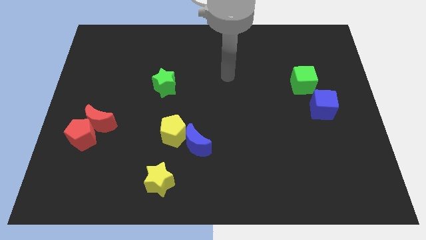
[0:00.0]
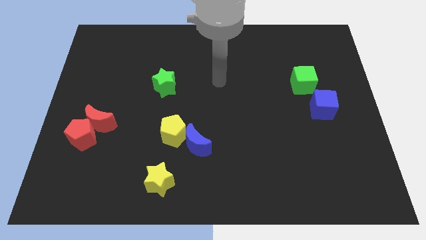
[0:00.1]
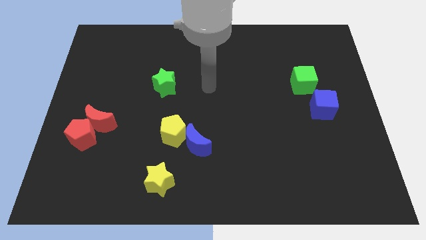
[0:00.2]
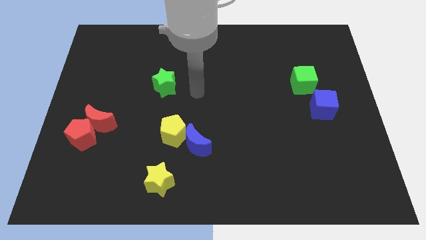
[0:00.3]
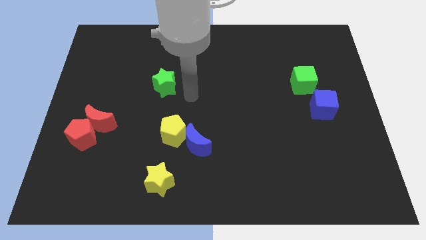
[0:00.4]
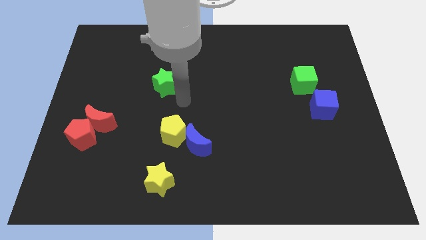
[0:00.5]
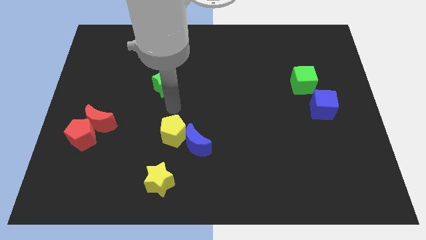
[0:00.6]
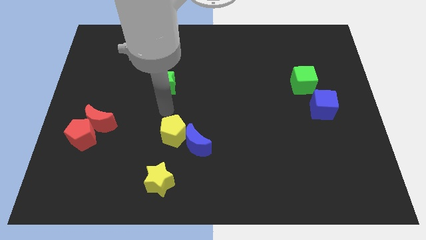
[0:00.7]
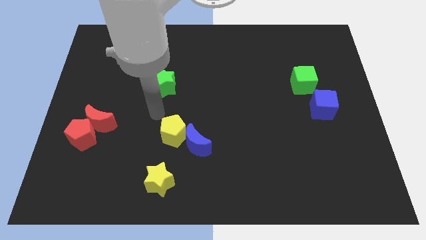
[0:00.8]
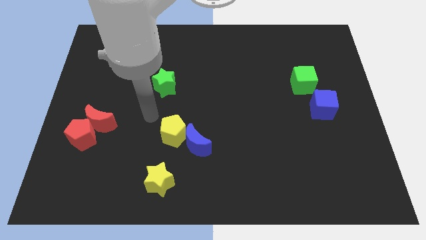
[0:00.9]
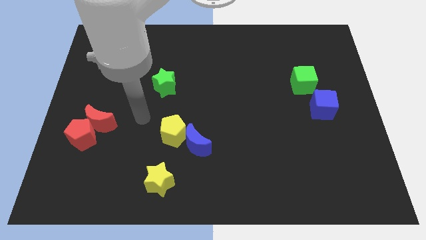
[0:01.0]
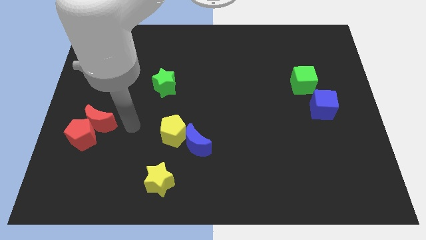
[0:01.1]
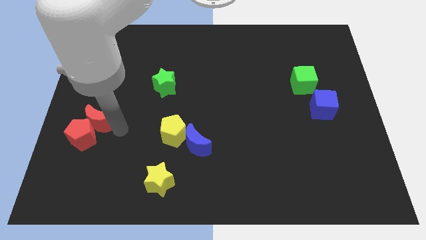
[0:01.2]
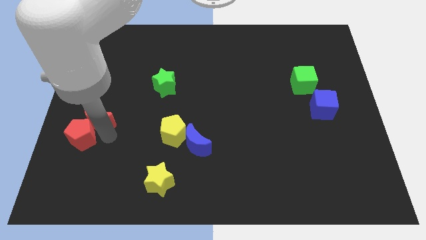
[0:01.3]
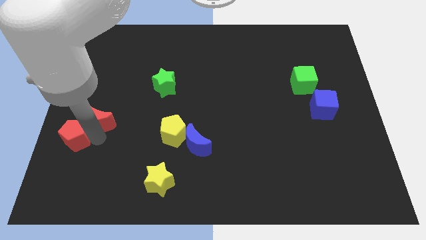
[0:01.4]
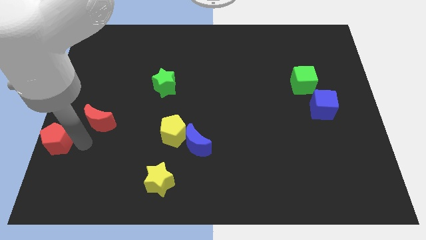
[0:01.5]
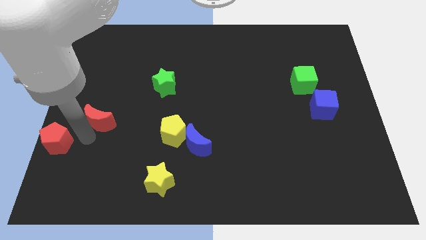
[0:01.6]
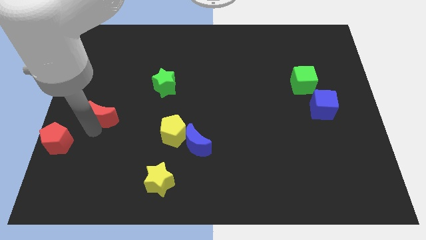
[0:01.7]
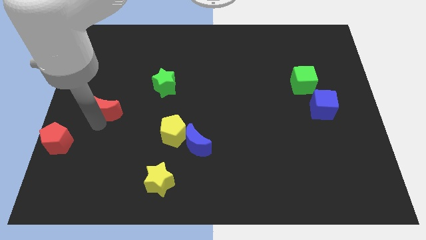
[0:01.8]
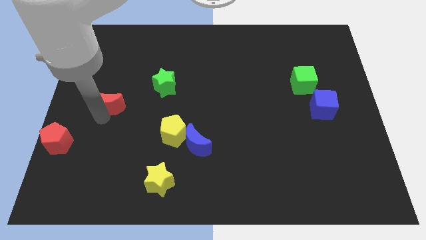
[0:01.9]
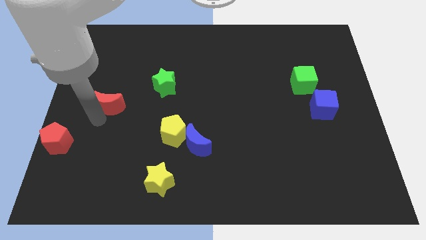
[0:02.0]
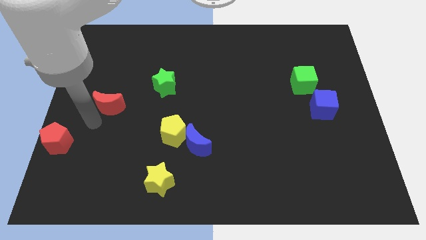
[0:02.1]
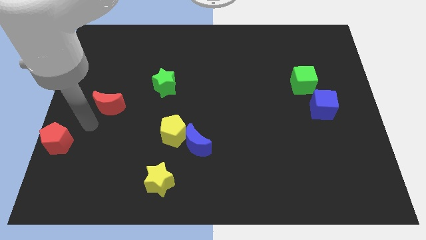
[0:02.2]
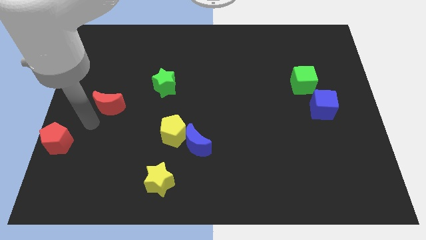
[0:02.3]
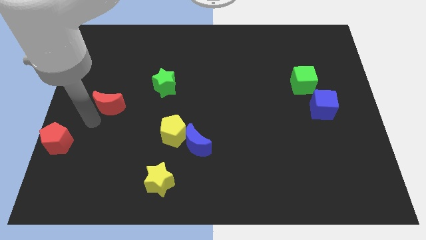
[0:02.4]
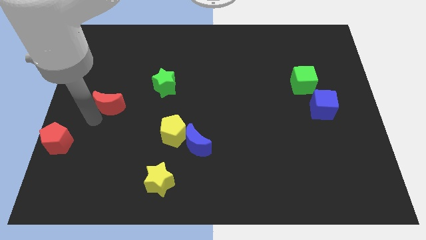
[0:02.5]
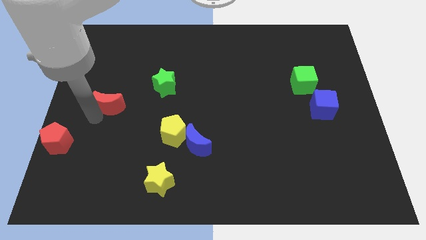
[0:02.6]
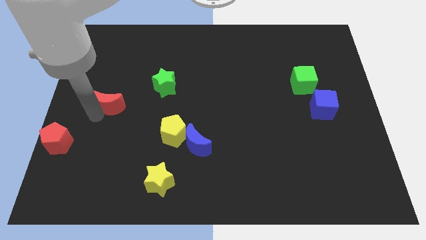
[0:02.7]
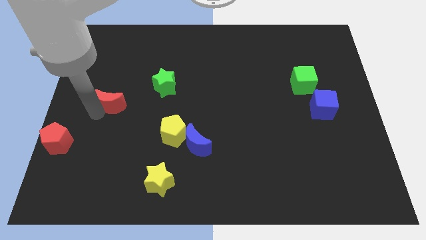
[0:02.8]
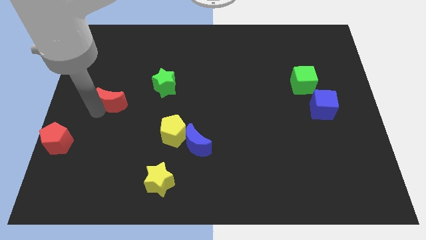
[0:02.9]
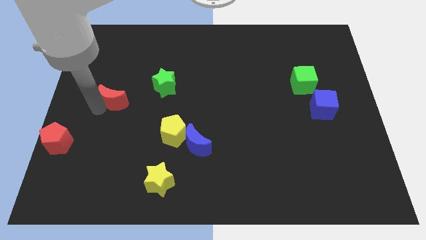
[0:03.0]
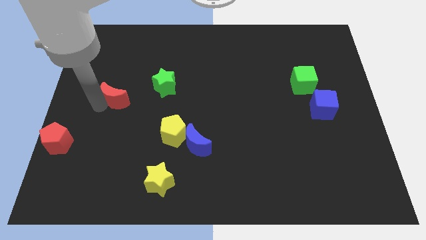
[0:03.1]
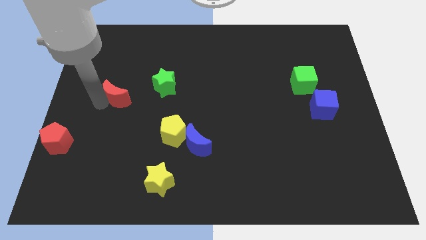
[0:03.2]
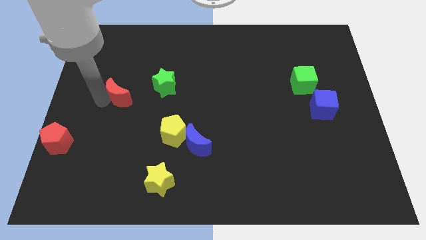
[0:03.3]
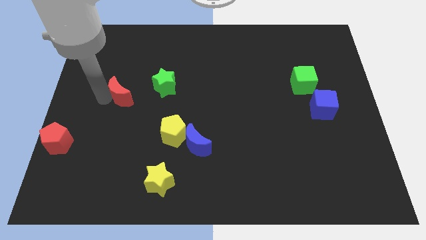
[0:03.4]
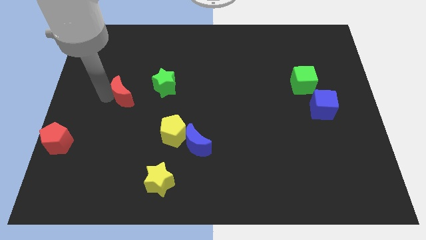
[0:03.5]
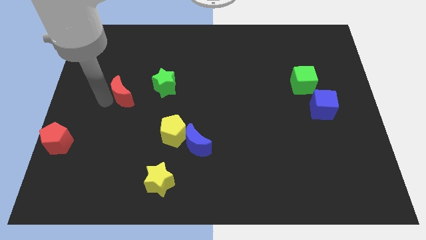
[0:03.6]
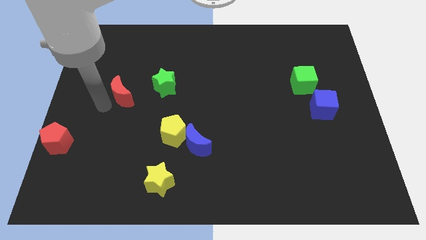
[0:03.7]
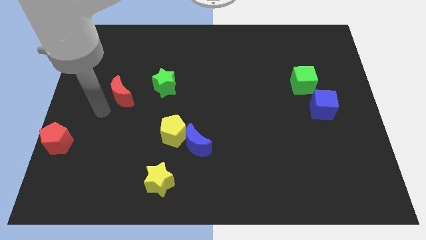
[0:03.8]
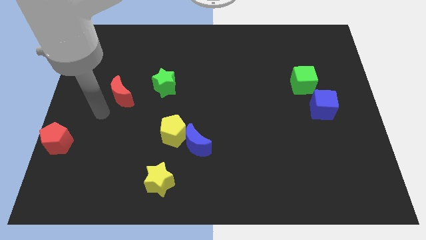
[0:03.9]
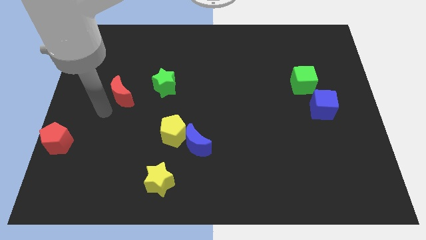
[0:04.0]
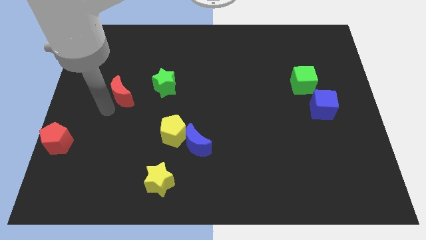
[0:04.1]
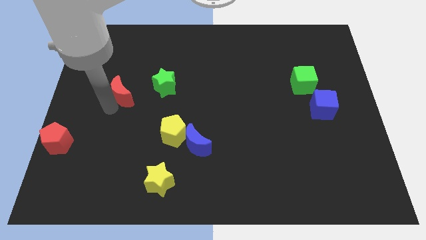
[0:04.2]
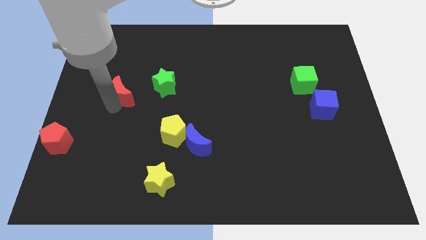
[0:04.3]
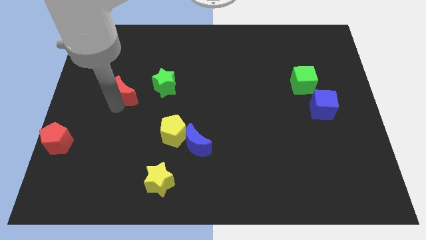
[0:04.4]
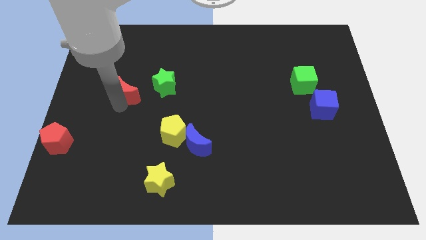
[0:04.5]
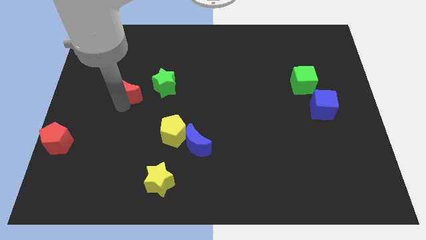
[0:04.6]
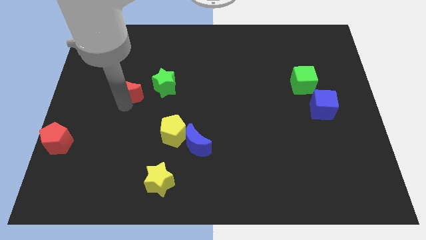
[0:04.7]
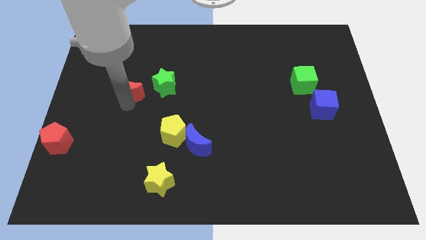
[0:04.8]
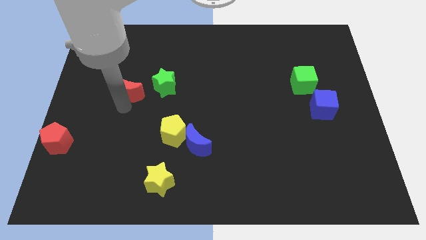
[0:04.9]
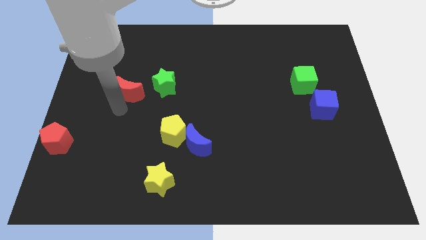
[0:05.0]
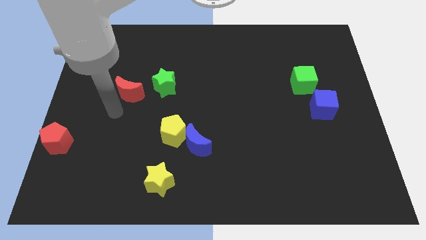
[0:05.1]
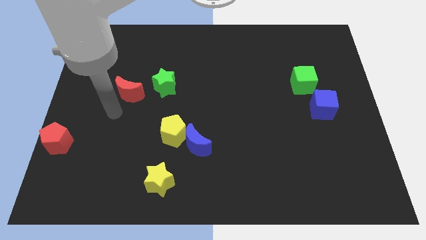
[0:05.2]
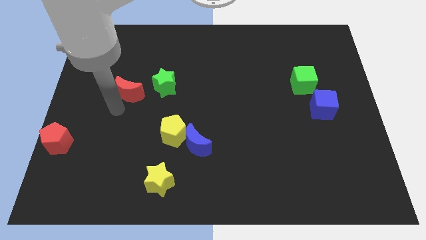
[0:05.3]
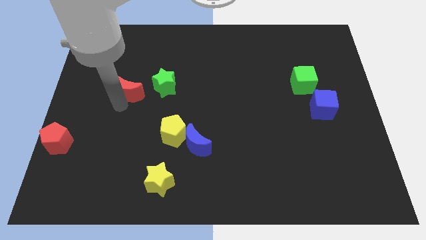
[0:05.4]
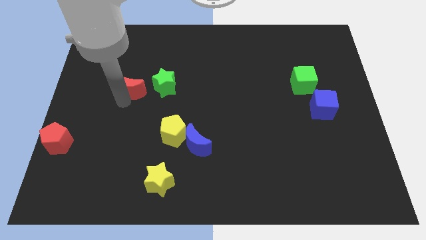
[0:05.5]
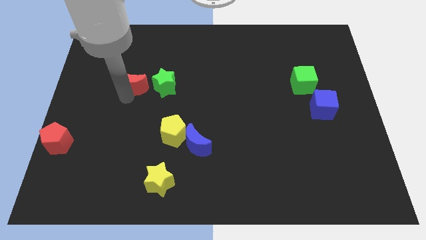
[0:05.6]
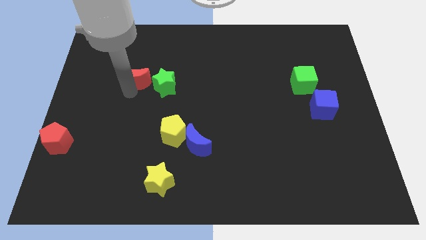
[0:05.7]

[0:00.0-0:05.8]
put the red moon diagonally up and to the left of the green star

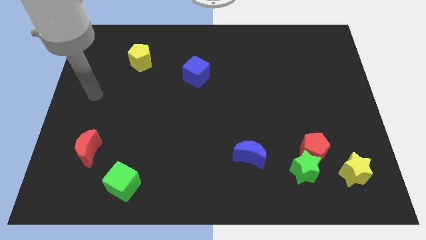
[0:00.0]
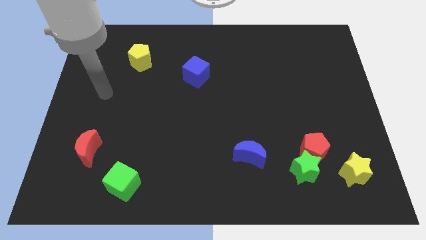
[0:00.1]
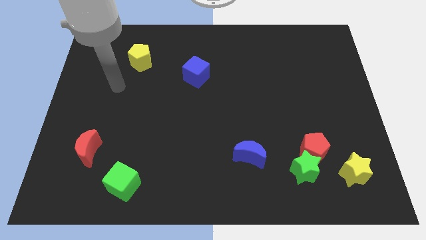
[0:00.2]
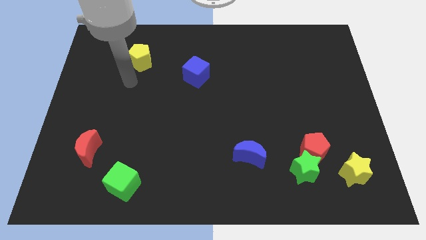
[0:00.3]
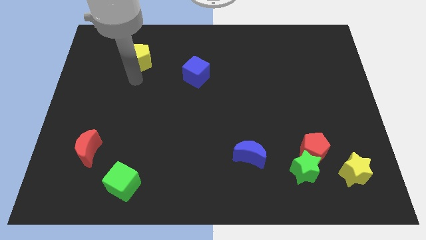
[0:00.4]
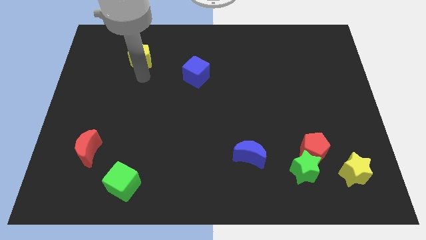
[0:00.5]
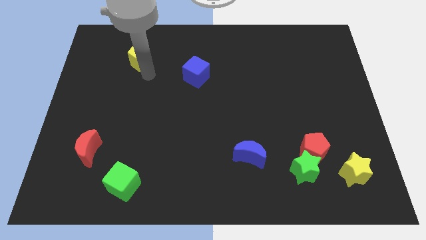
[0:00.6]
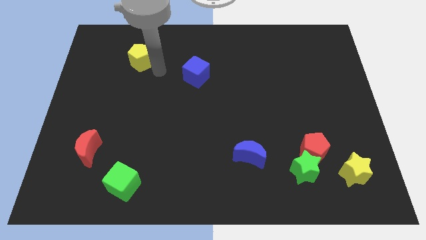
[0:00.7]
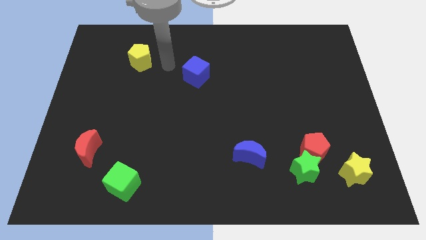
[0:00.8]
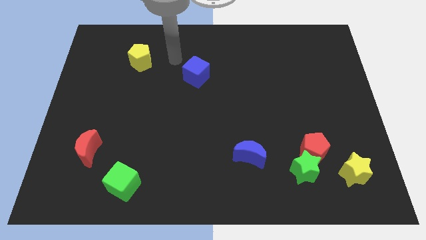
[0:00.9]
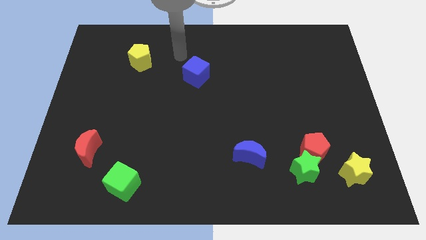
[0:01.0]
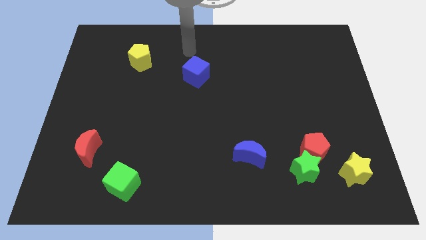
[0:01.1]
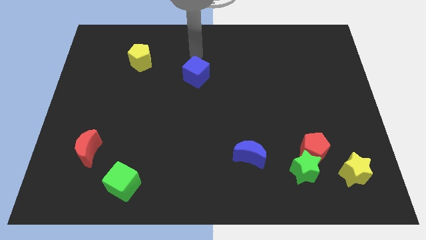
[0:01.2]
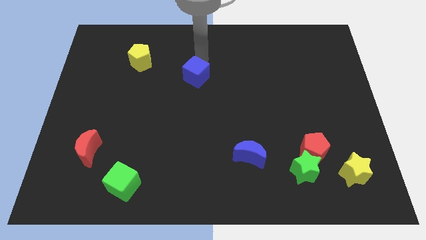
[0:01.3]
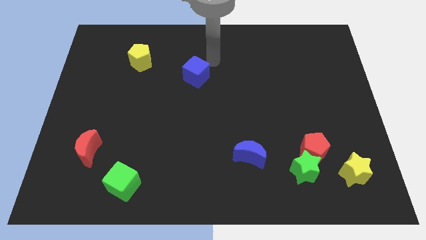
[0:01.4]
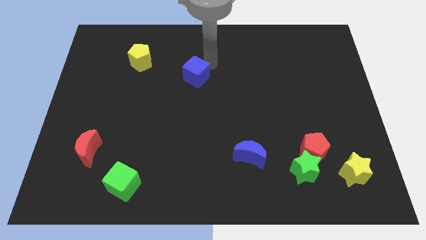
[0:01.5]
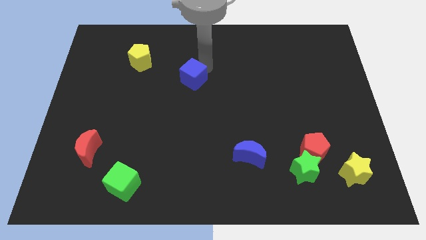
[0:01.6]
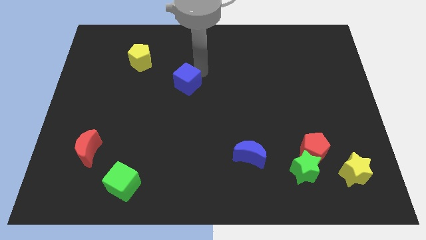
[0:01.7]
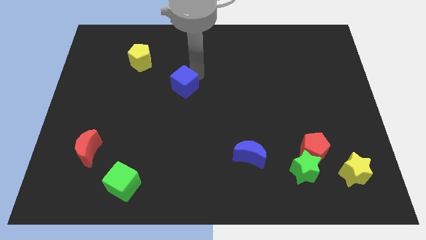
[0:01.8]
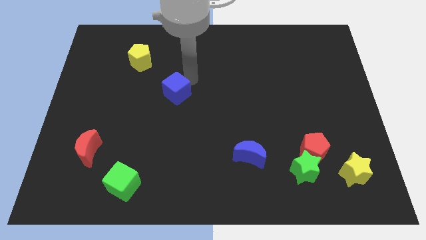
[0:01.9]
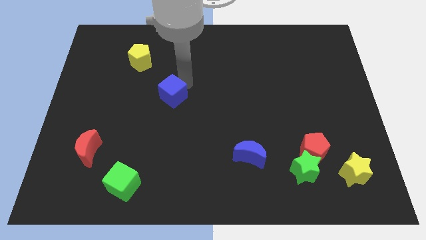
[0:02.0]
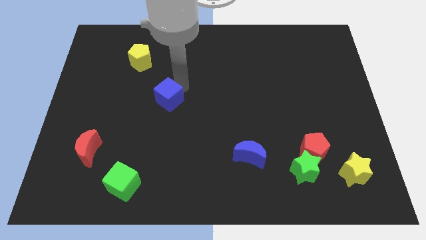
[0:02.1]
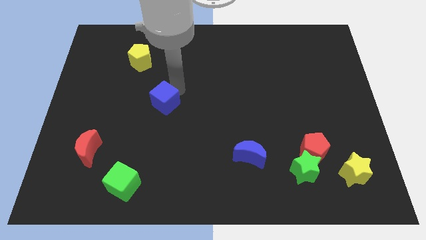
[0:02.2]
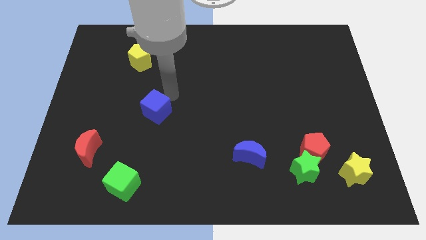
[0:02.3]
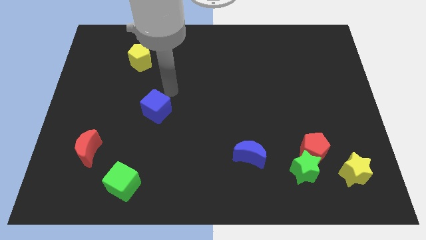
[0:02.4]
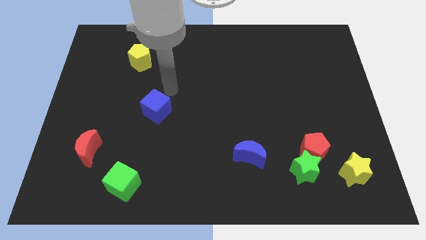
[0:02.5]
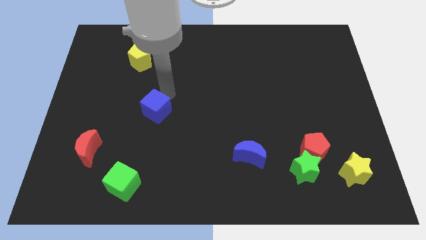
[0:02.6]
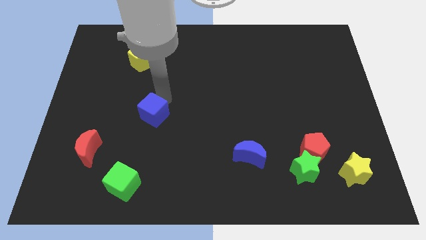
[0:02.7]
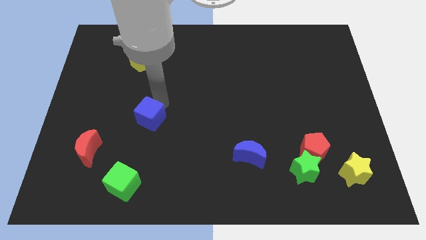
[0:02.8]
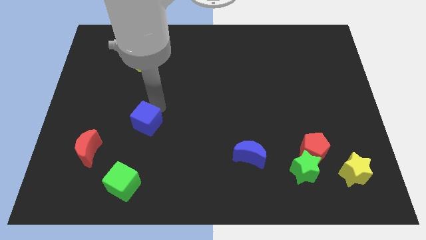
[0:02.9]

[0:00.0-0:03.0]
push the blue cube above the green cube
